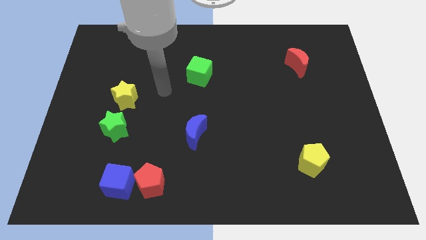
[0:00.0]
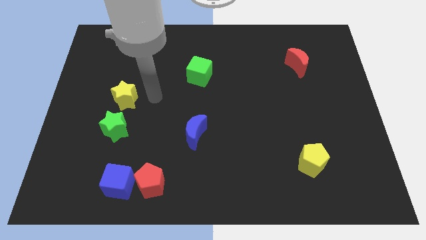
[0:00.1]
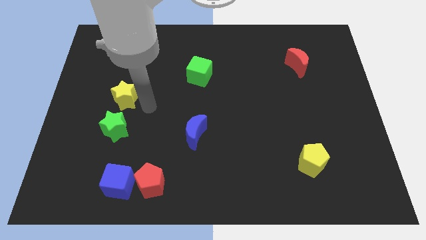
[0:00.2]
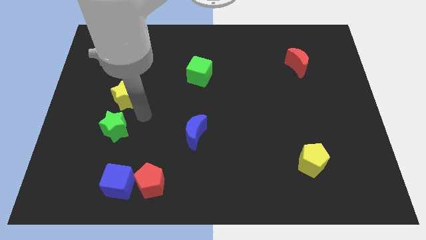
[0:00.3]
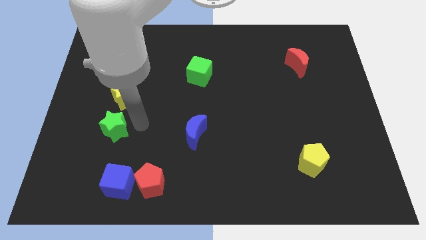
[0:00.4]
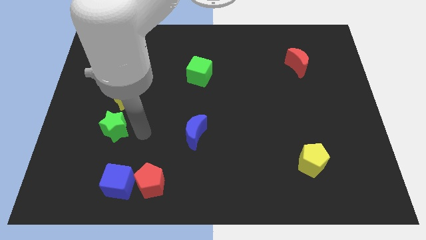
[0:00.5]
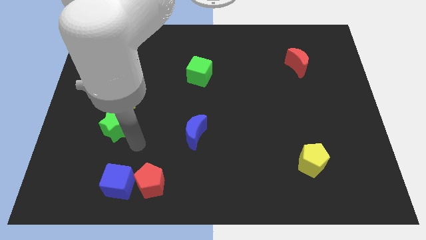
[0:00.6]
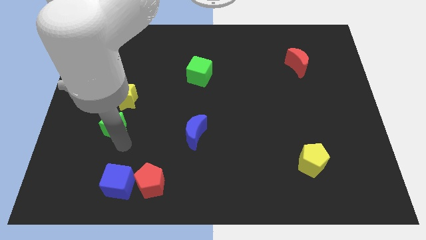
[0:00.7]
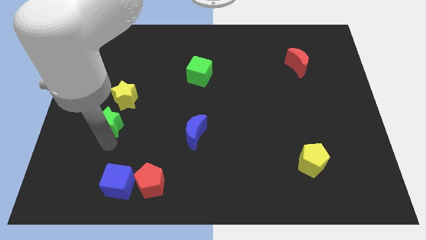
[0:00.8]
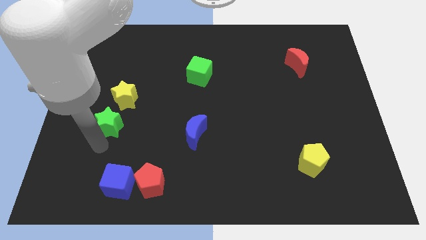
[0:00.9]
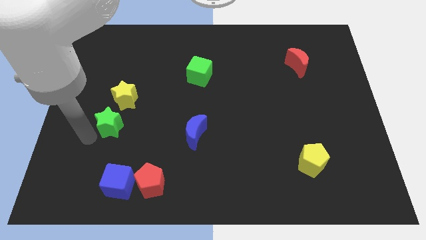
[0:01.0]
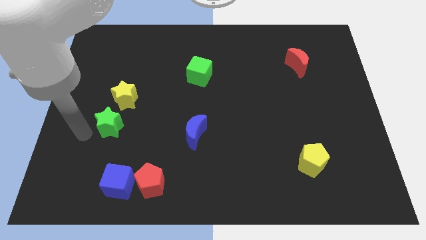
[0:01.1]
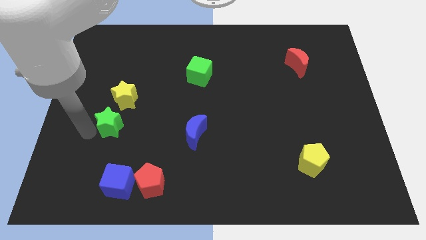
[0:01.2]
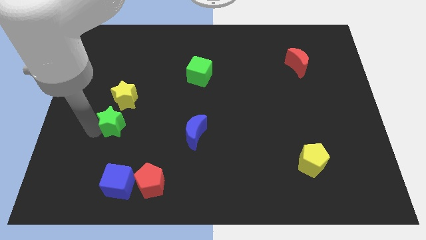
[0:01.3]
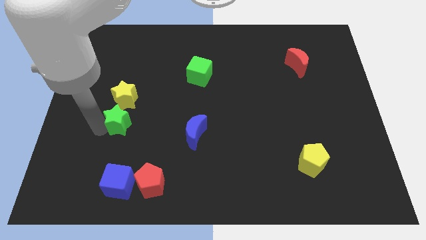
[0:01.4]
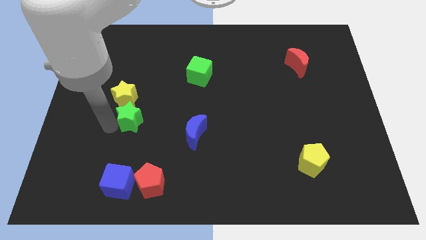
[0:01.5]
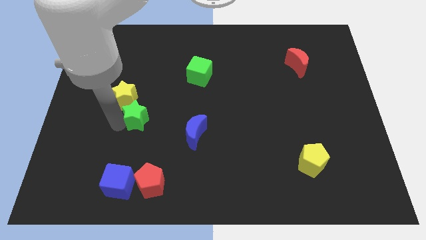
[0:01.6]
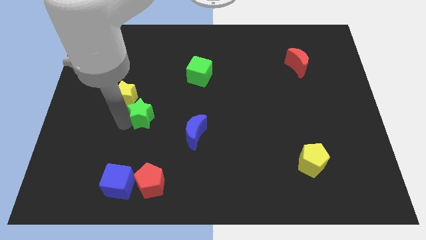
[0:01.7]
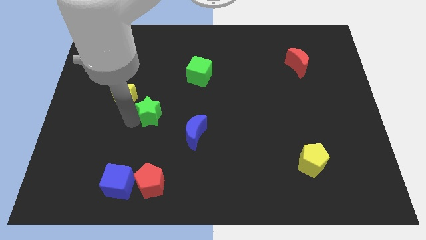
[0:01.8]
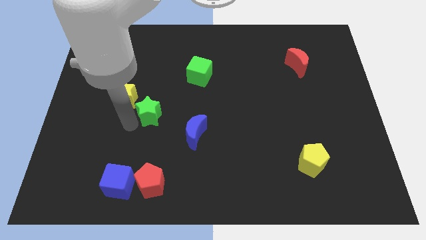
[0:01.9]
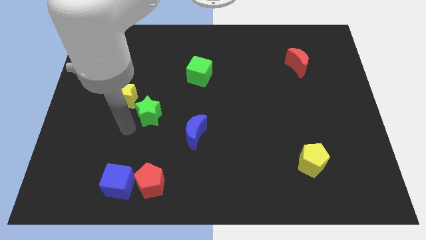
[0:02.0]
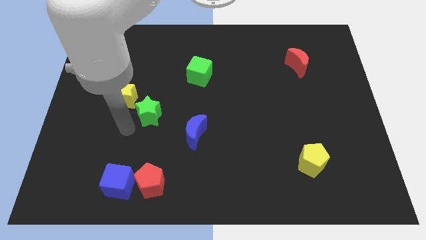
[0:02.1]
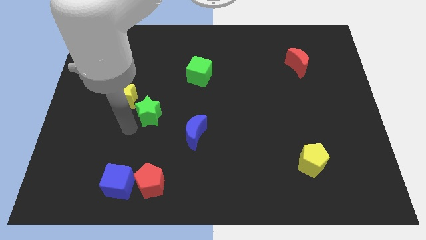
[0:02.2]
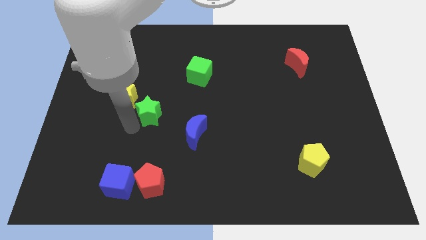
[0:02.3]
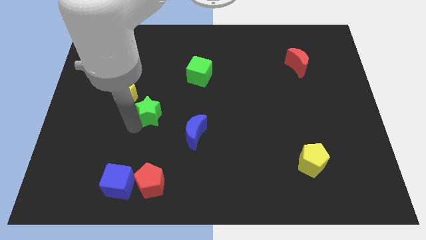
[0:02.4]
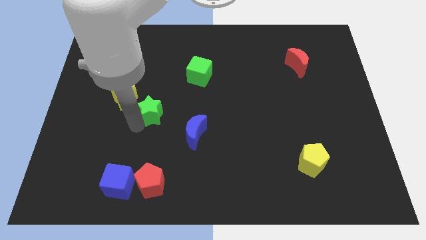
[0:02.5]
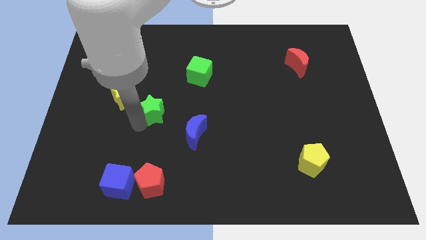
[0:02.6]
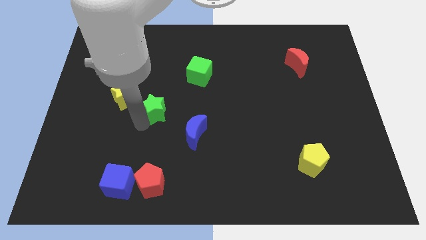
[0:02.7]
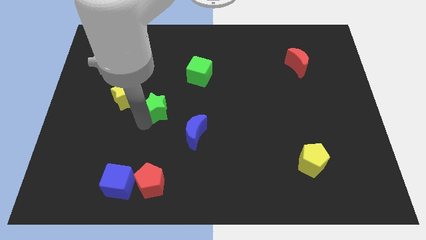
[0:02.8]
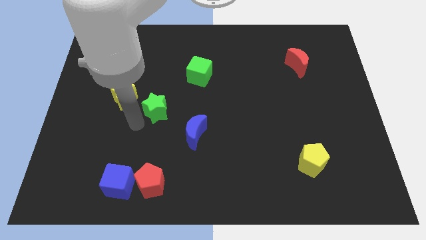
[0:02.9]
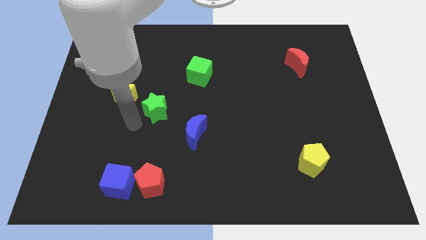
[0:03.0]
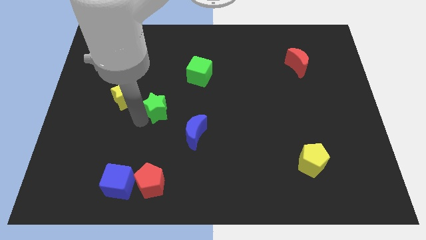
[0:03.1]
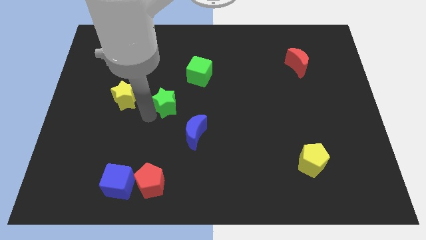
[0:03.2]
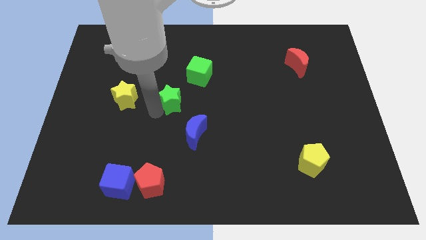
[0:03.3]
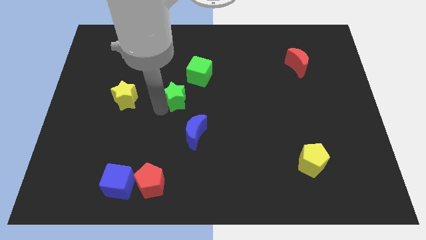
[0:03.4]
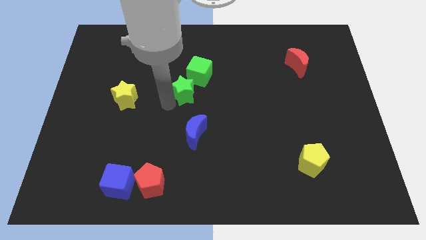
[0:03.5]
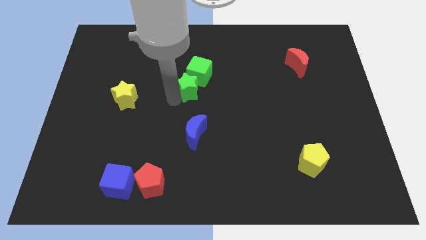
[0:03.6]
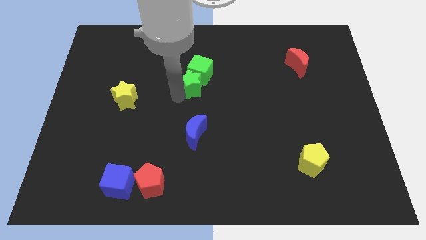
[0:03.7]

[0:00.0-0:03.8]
move the green star up and then to the right

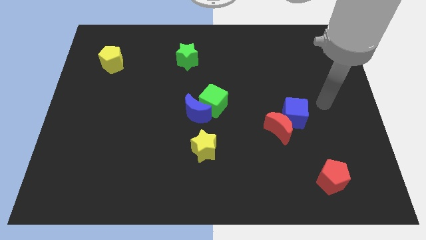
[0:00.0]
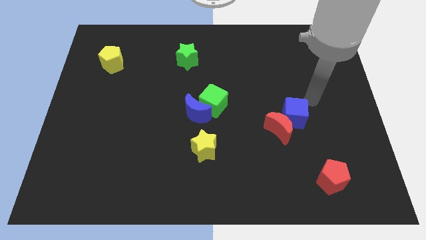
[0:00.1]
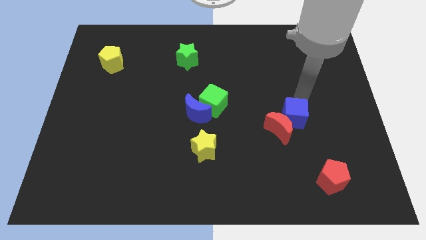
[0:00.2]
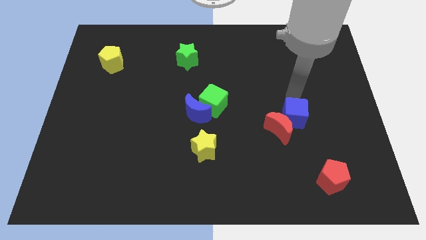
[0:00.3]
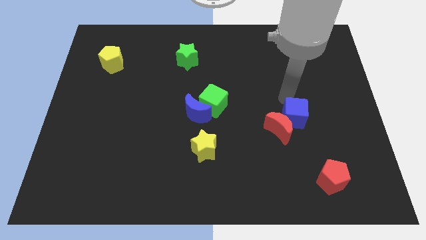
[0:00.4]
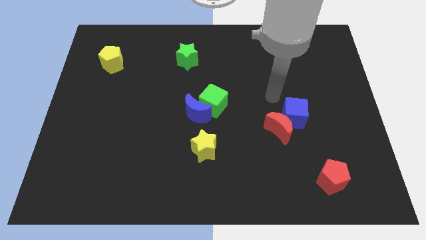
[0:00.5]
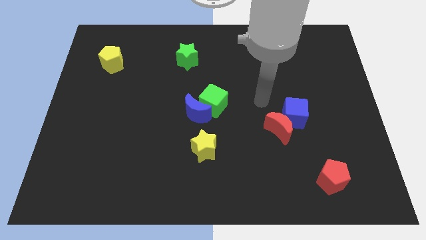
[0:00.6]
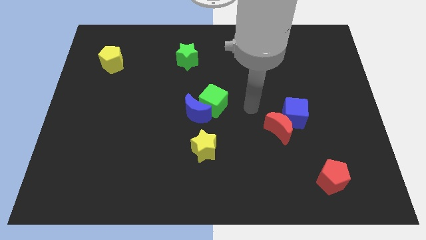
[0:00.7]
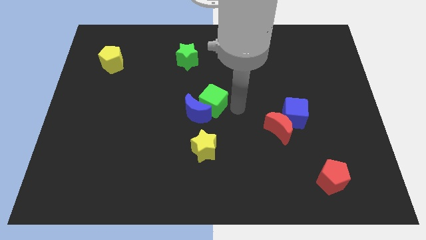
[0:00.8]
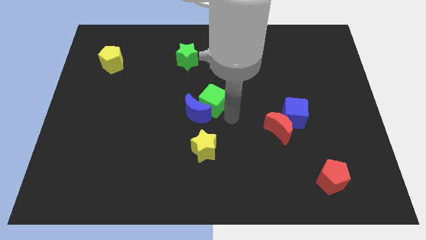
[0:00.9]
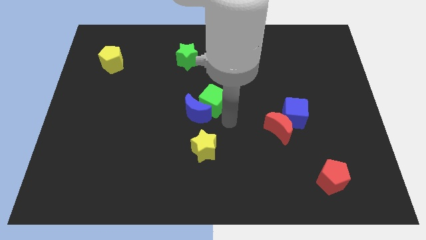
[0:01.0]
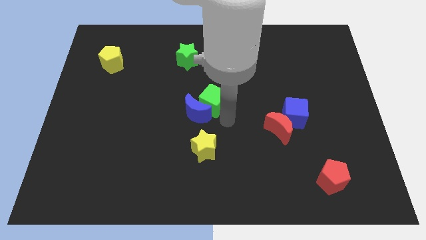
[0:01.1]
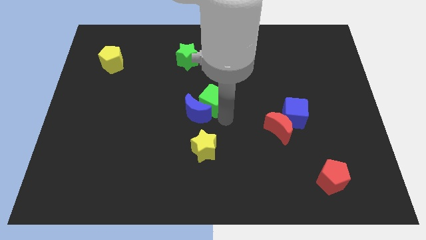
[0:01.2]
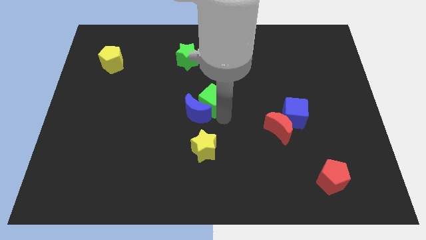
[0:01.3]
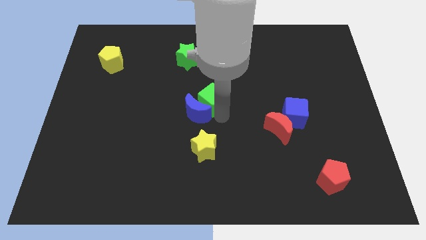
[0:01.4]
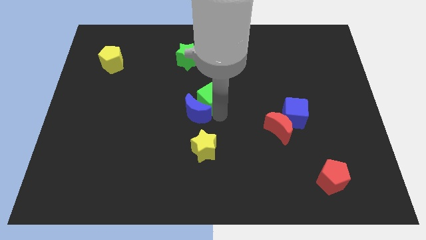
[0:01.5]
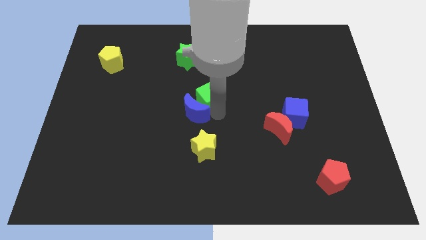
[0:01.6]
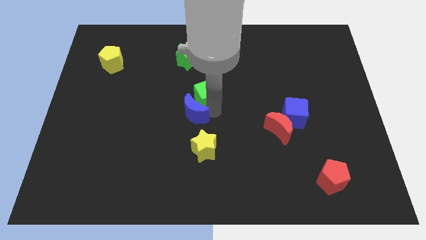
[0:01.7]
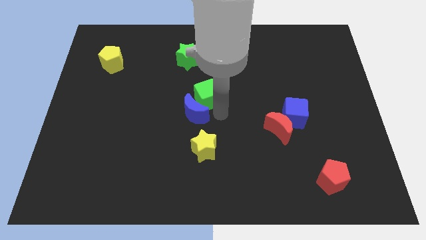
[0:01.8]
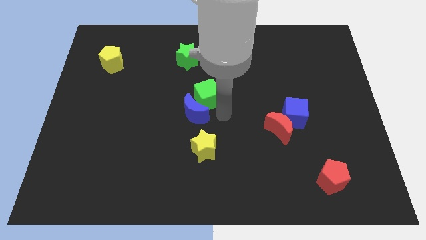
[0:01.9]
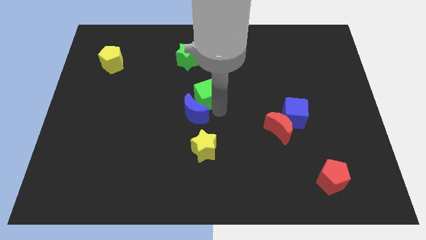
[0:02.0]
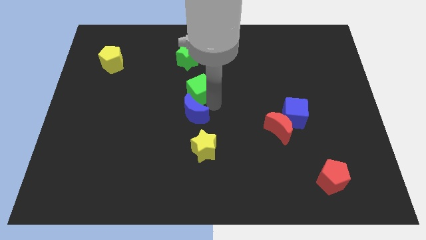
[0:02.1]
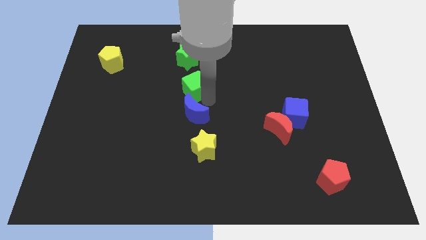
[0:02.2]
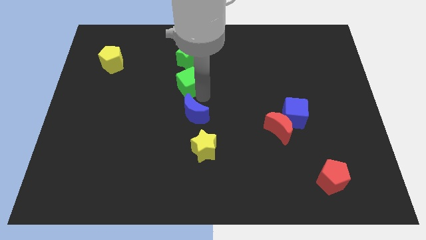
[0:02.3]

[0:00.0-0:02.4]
slightly push the green cube up and left

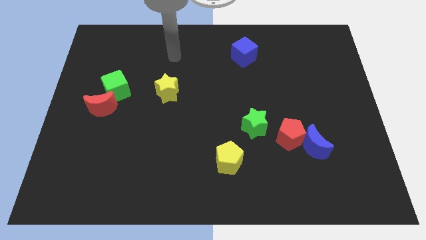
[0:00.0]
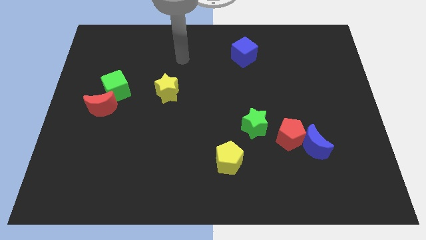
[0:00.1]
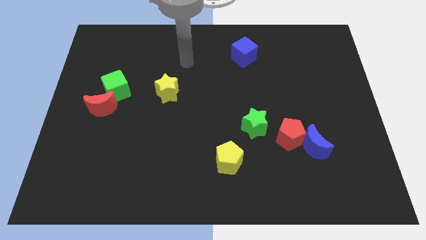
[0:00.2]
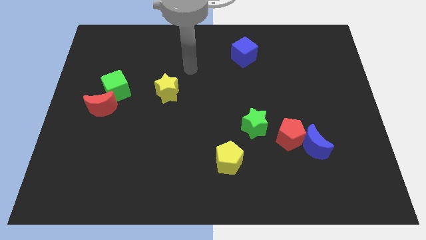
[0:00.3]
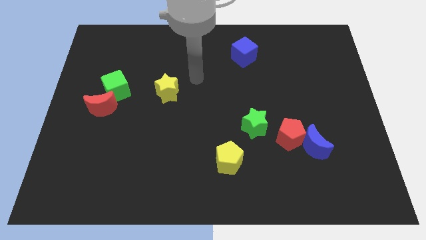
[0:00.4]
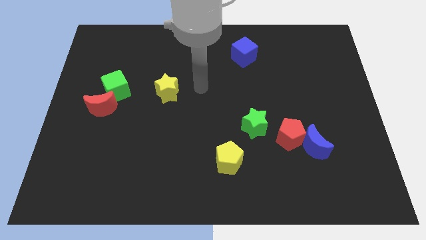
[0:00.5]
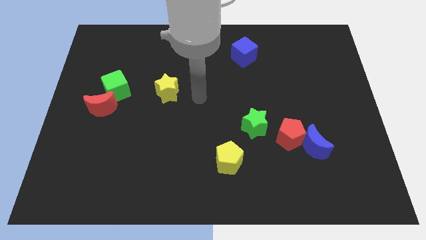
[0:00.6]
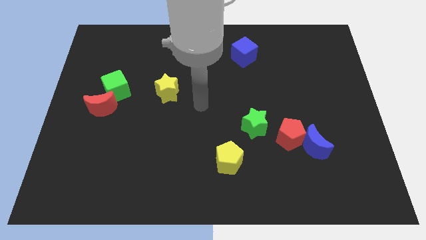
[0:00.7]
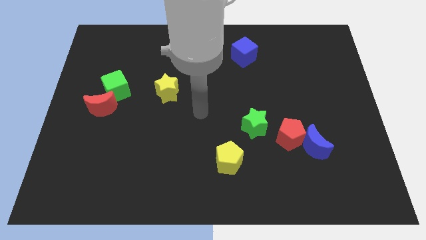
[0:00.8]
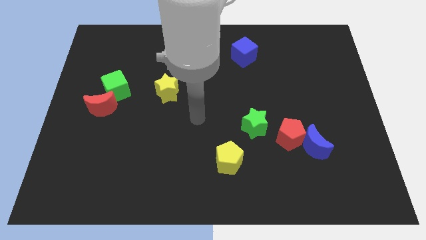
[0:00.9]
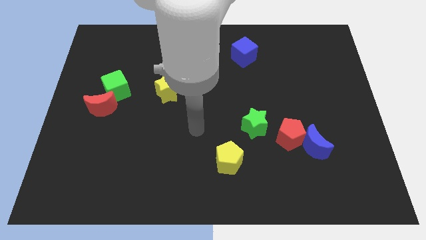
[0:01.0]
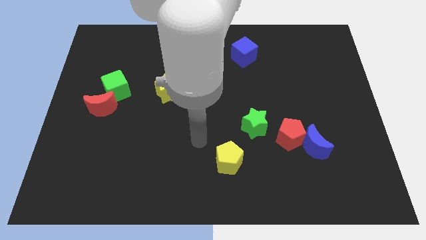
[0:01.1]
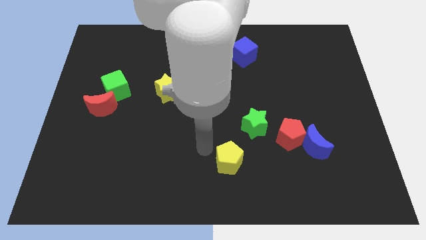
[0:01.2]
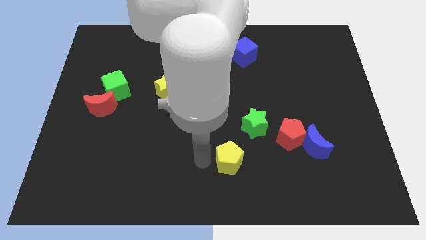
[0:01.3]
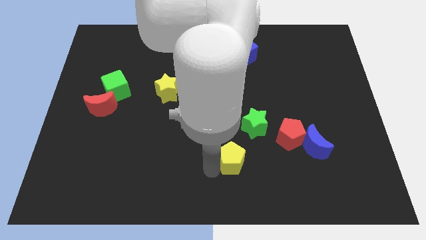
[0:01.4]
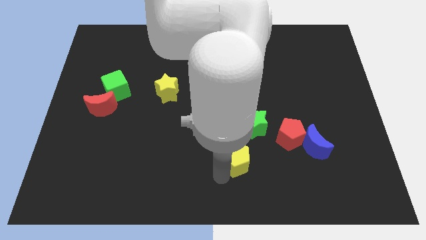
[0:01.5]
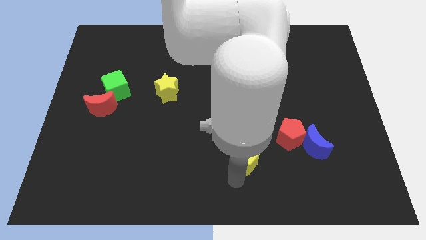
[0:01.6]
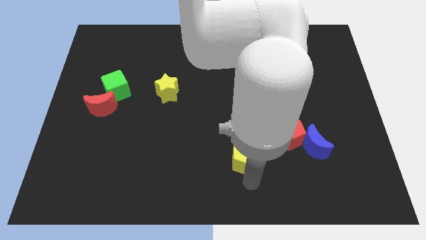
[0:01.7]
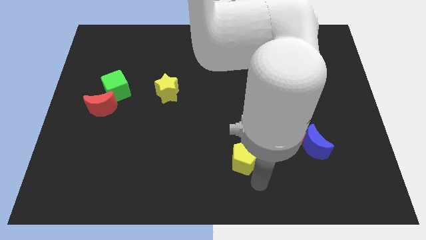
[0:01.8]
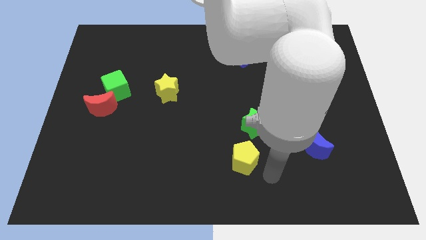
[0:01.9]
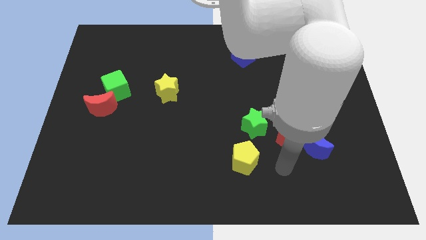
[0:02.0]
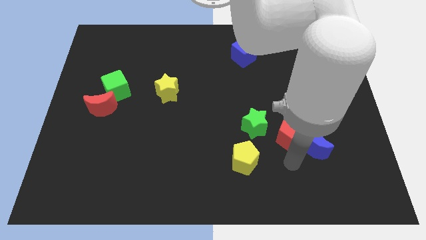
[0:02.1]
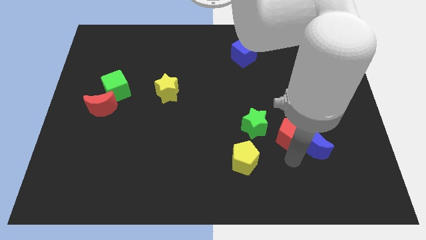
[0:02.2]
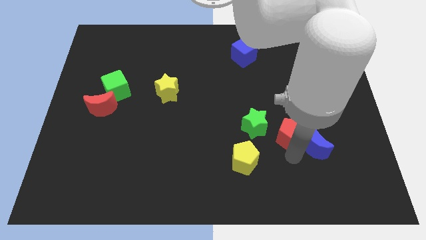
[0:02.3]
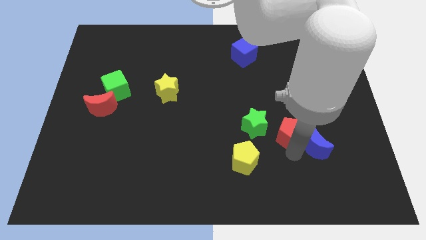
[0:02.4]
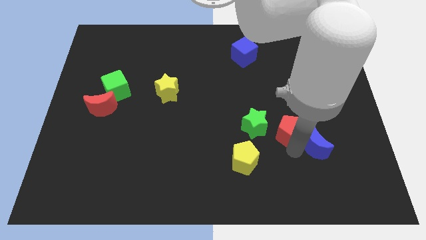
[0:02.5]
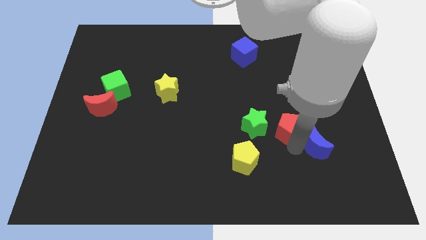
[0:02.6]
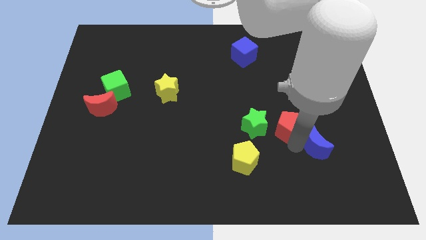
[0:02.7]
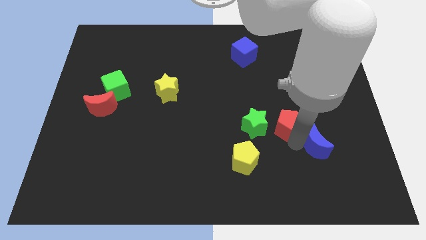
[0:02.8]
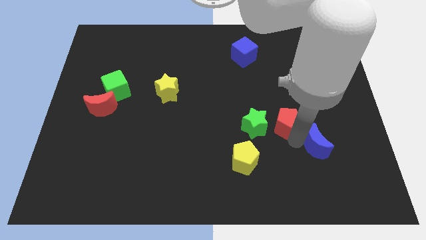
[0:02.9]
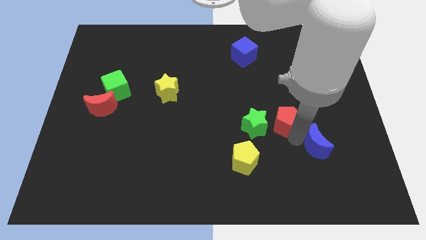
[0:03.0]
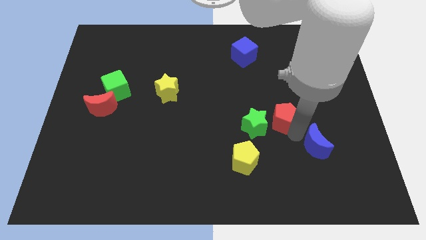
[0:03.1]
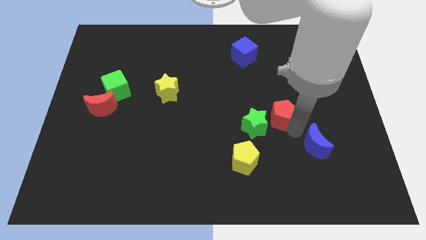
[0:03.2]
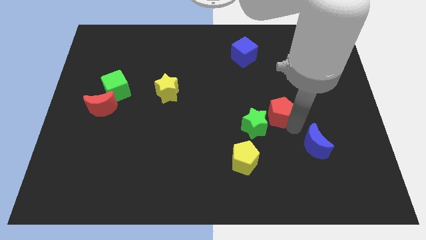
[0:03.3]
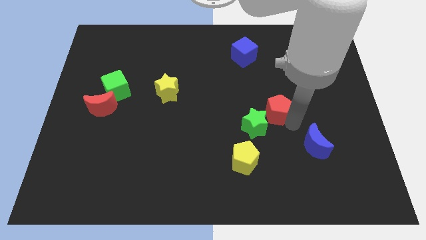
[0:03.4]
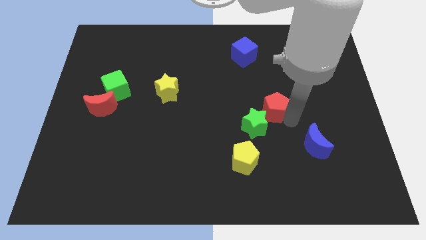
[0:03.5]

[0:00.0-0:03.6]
slide the red pentagon a bit upwards
